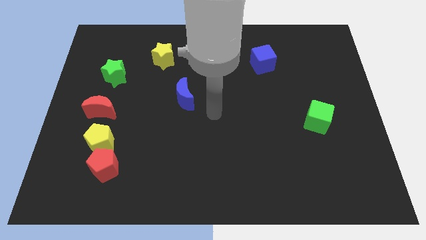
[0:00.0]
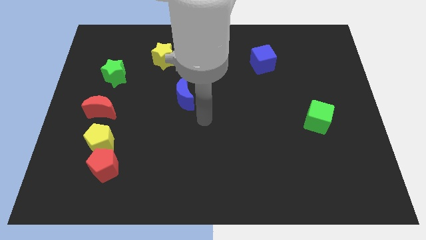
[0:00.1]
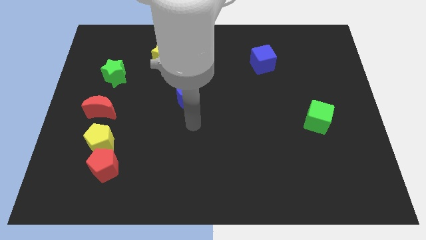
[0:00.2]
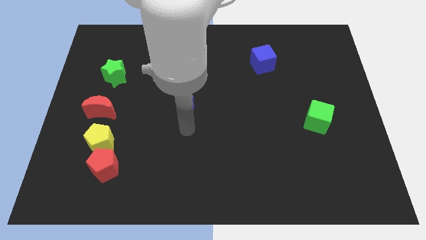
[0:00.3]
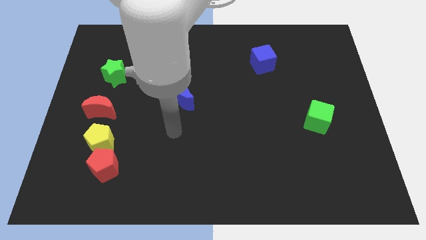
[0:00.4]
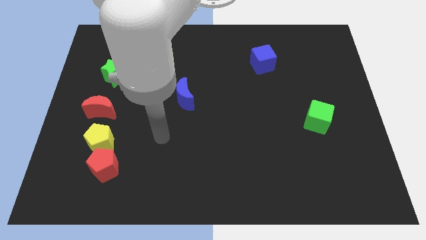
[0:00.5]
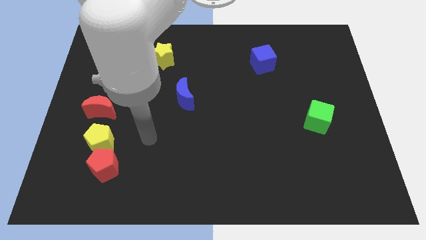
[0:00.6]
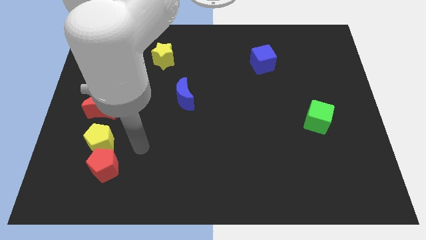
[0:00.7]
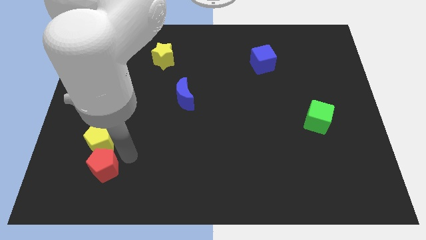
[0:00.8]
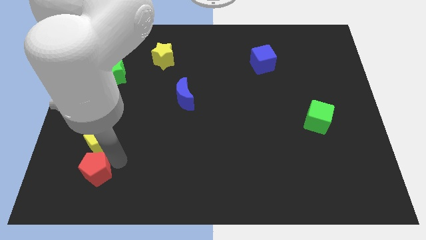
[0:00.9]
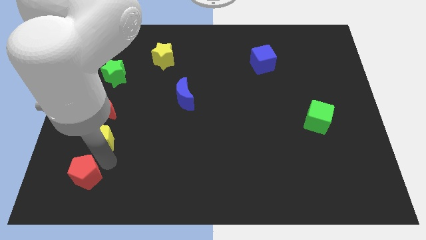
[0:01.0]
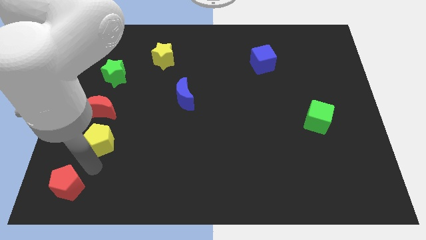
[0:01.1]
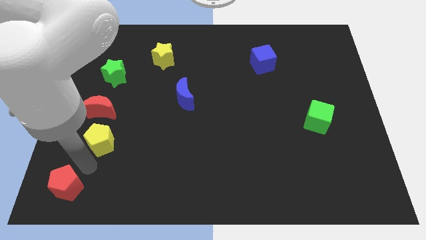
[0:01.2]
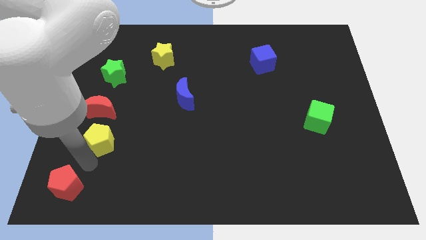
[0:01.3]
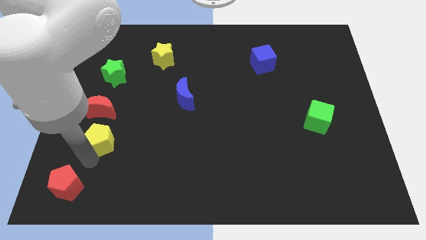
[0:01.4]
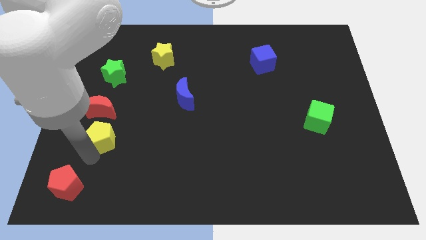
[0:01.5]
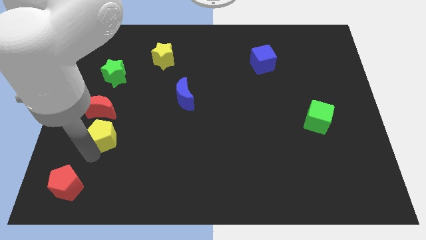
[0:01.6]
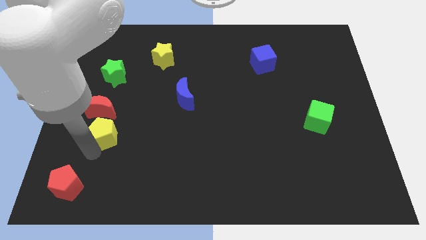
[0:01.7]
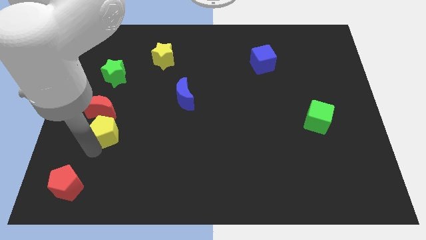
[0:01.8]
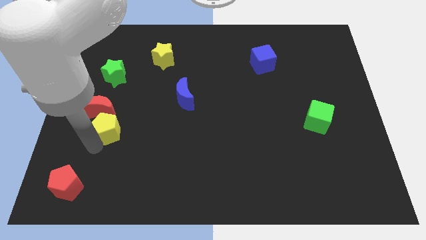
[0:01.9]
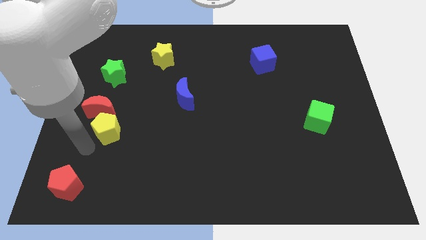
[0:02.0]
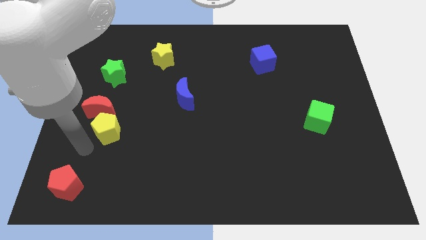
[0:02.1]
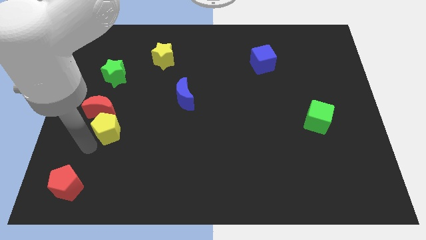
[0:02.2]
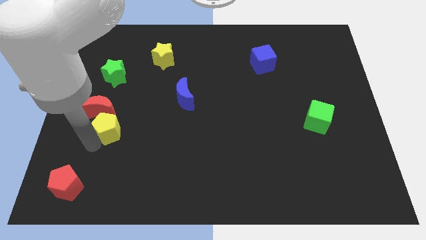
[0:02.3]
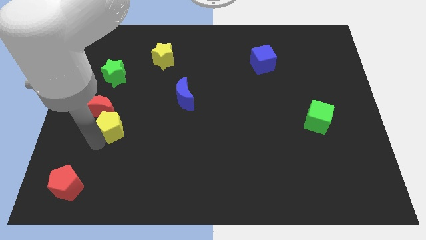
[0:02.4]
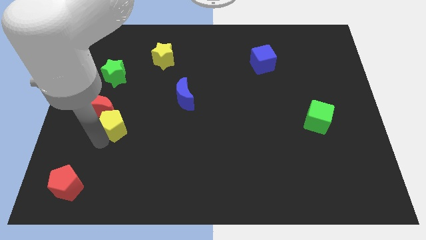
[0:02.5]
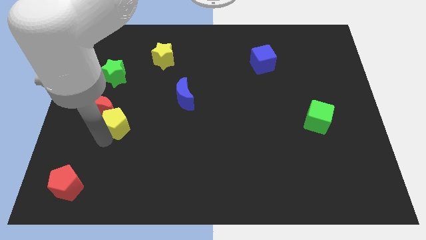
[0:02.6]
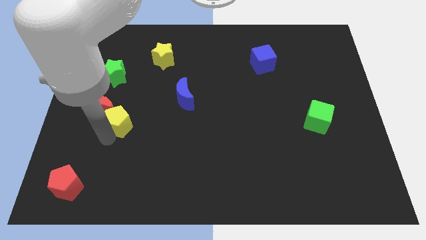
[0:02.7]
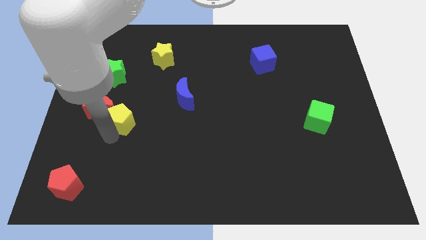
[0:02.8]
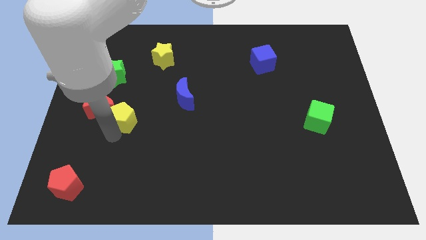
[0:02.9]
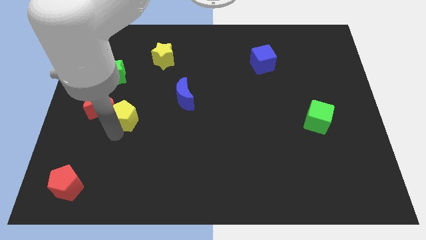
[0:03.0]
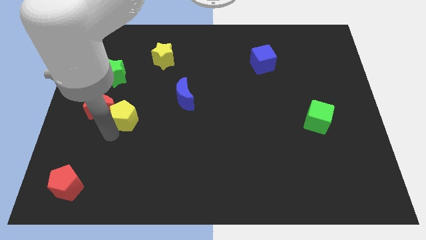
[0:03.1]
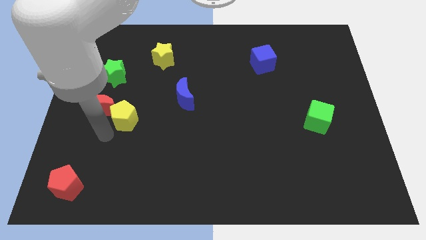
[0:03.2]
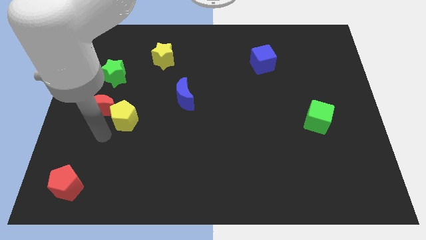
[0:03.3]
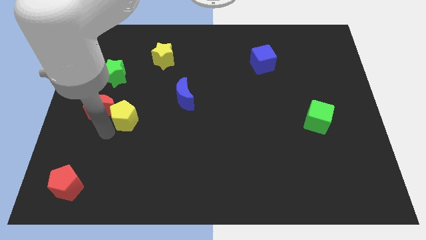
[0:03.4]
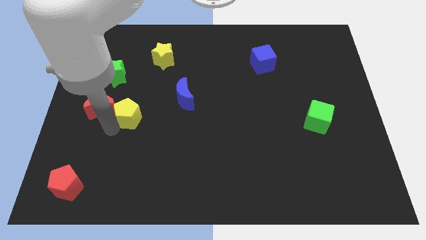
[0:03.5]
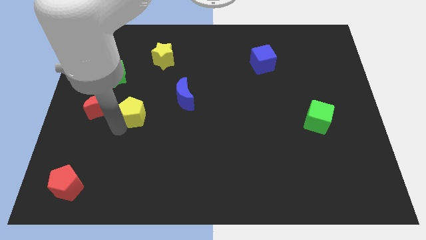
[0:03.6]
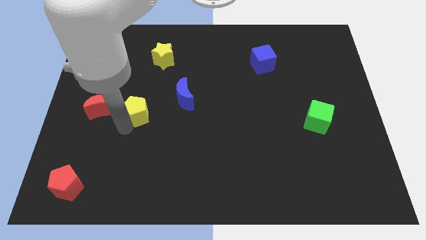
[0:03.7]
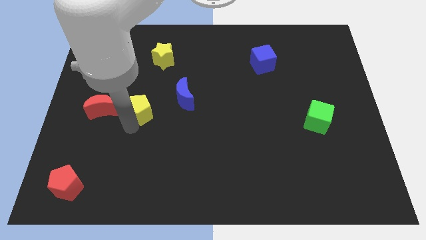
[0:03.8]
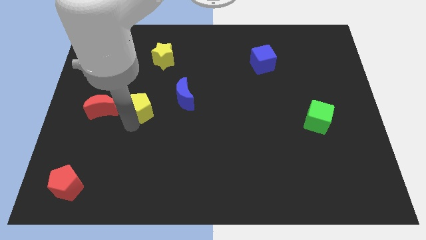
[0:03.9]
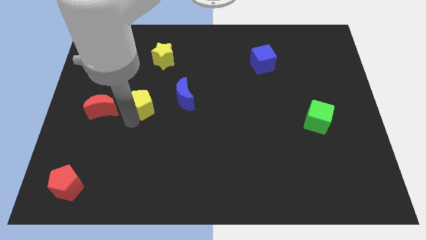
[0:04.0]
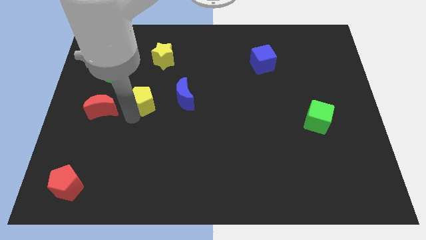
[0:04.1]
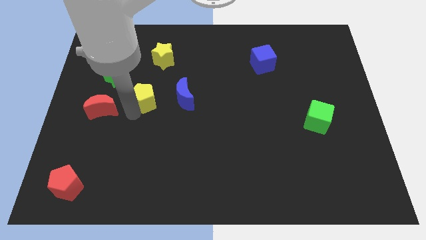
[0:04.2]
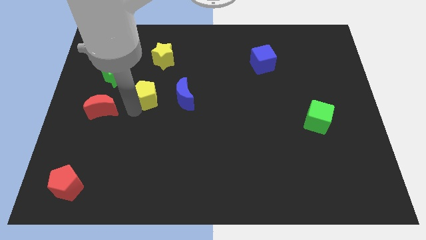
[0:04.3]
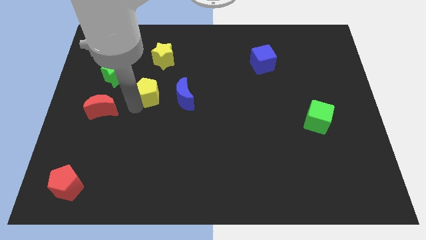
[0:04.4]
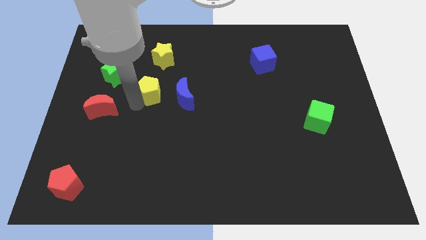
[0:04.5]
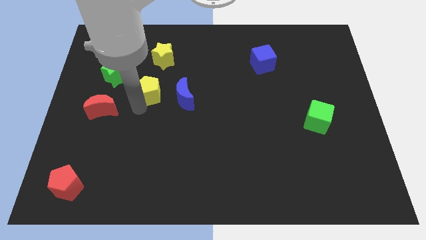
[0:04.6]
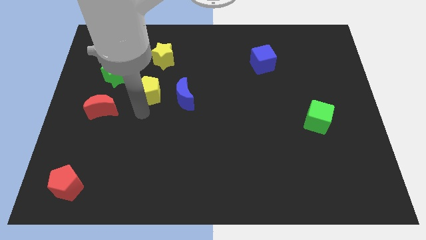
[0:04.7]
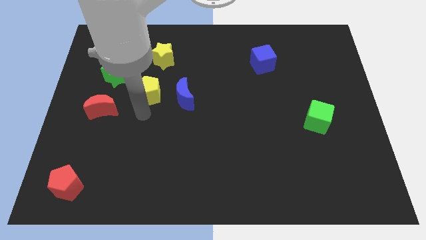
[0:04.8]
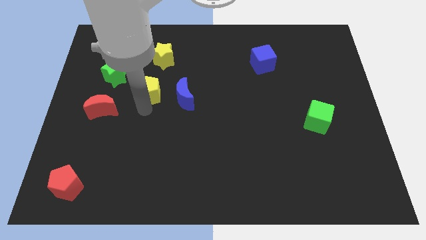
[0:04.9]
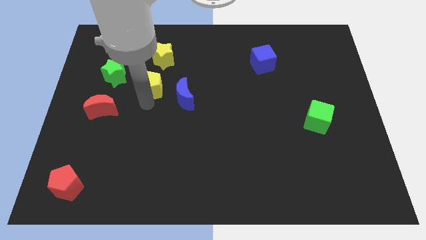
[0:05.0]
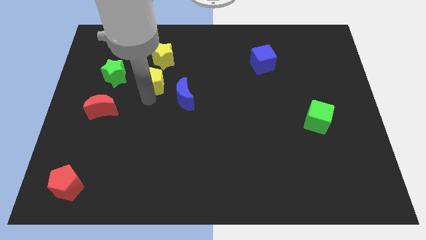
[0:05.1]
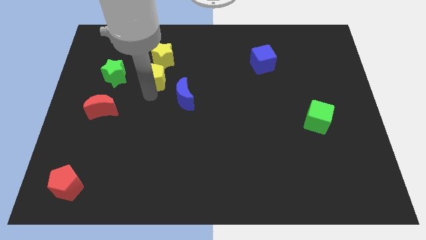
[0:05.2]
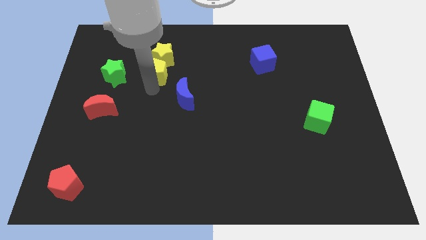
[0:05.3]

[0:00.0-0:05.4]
slide the yellow pentagon towards the yellow star

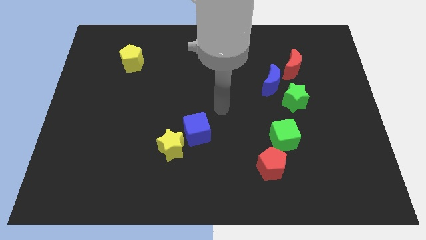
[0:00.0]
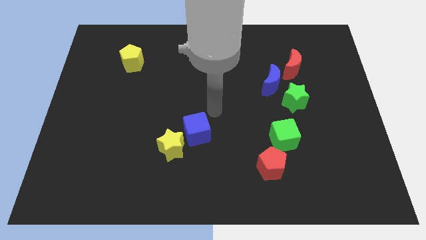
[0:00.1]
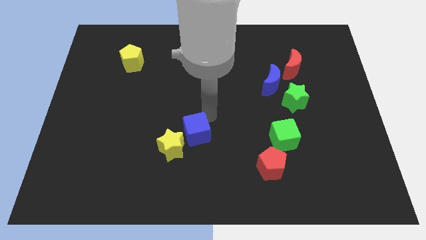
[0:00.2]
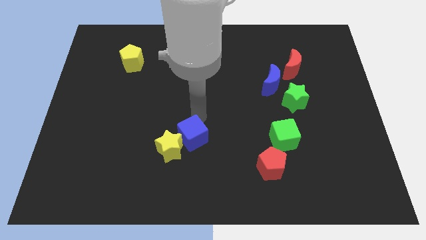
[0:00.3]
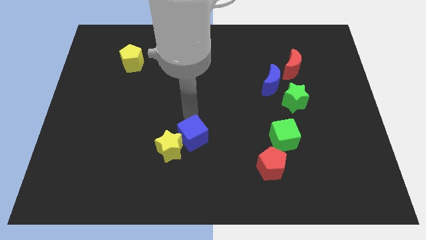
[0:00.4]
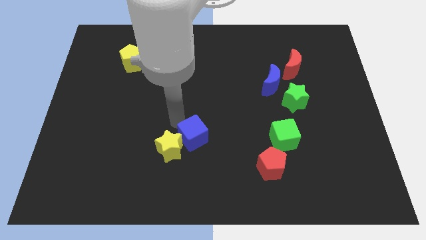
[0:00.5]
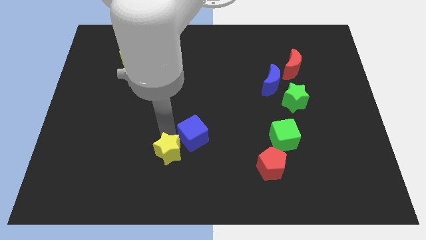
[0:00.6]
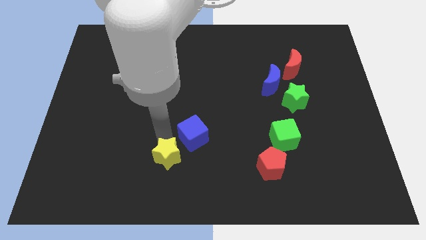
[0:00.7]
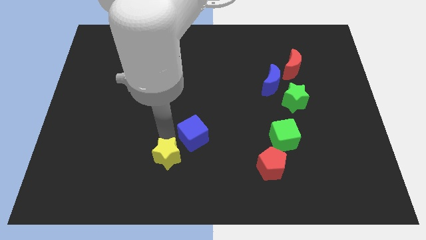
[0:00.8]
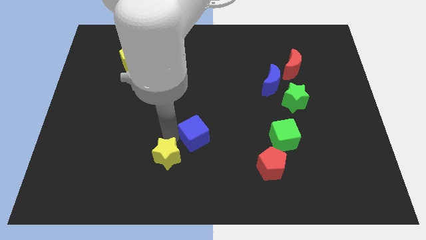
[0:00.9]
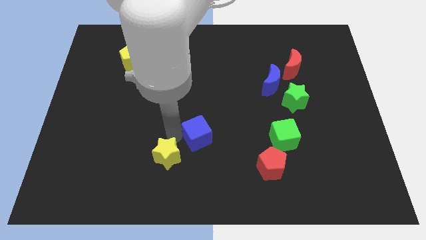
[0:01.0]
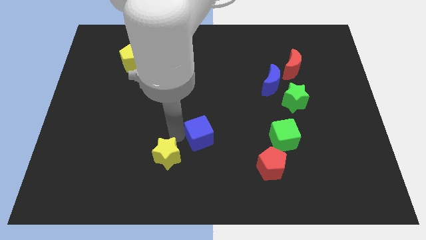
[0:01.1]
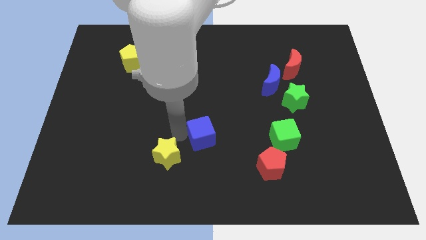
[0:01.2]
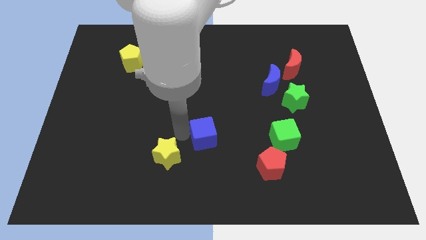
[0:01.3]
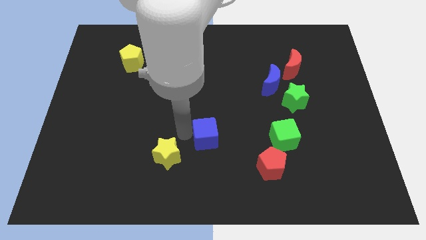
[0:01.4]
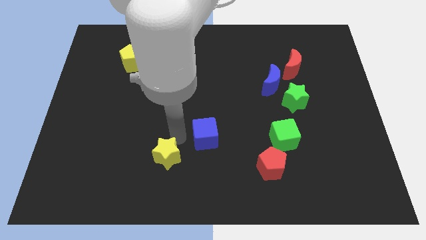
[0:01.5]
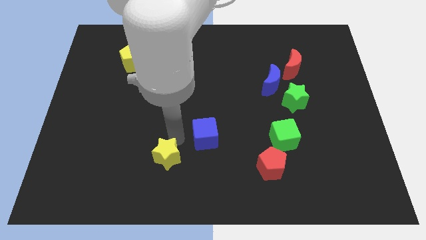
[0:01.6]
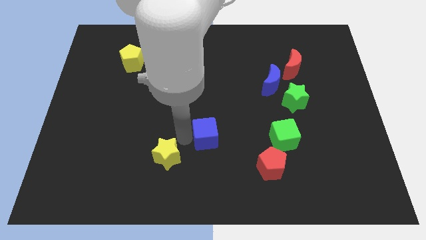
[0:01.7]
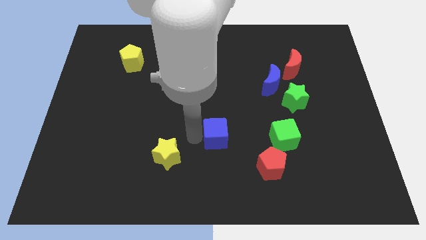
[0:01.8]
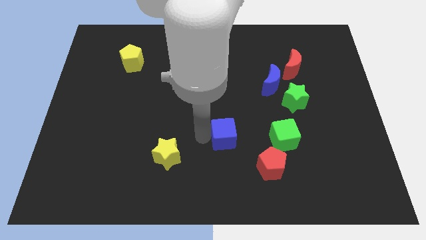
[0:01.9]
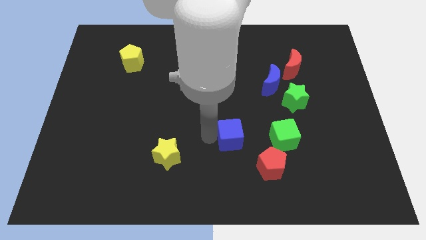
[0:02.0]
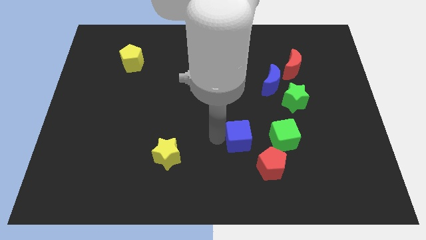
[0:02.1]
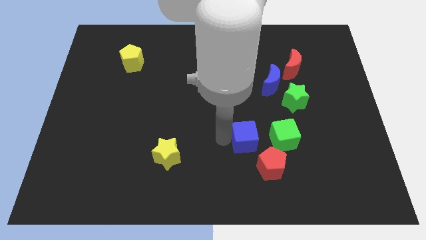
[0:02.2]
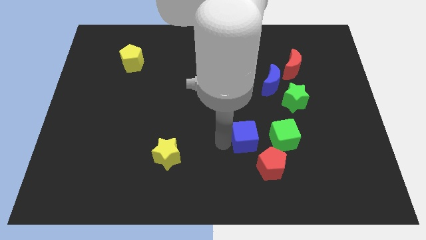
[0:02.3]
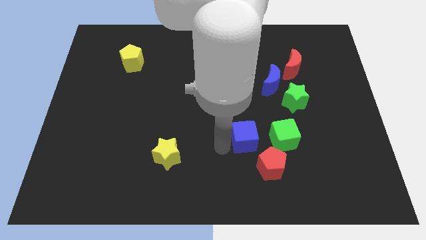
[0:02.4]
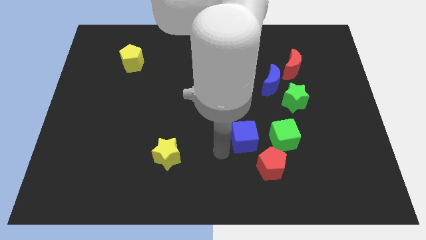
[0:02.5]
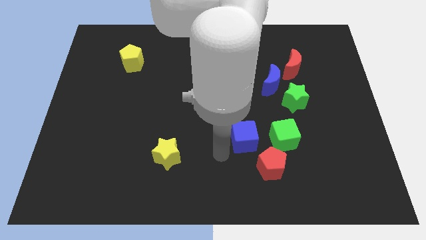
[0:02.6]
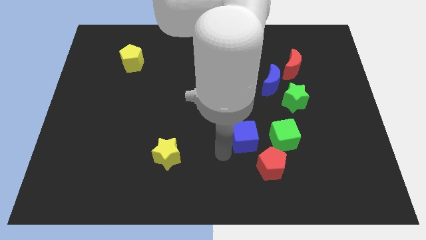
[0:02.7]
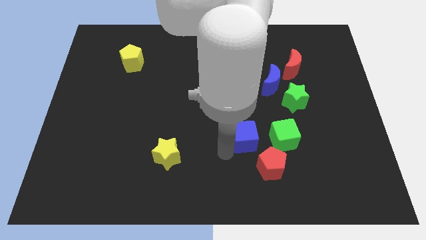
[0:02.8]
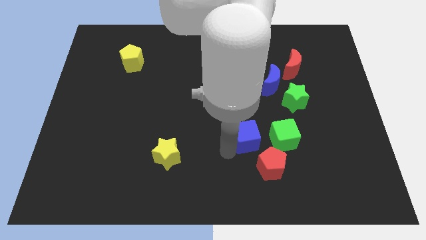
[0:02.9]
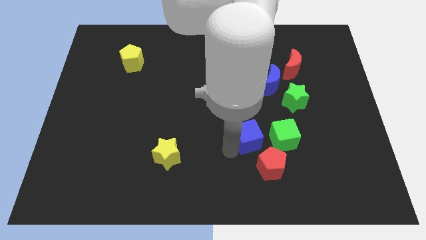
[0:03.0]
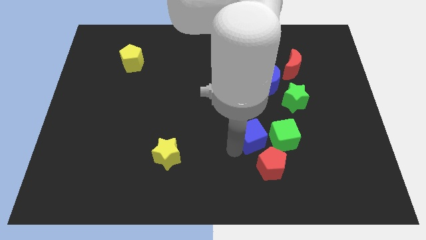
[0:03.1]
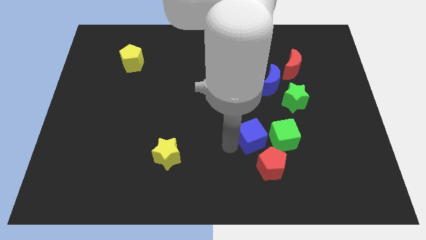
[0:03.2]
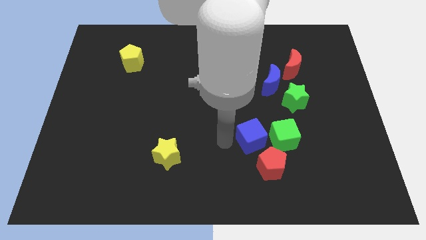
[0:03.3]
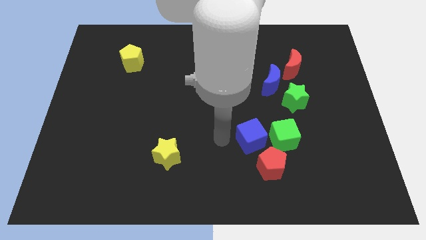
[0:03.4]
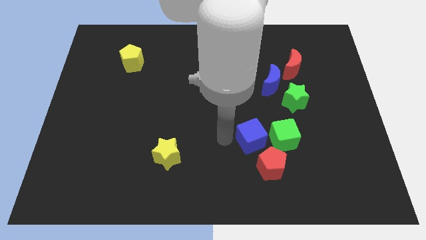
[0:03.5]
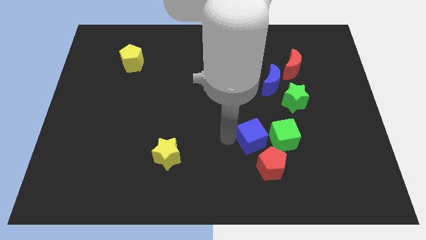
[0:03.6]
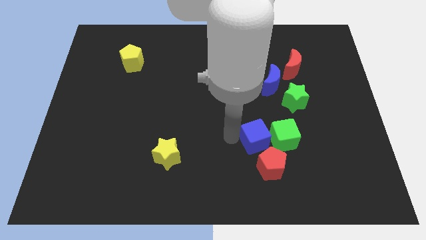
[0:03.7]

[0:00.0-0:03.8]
move the blue cube to the green cube
